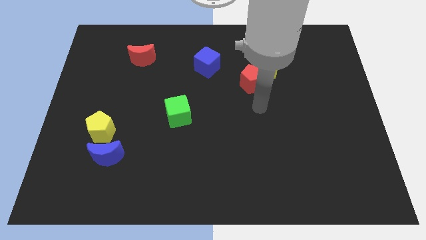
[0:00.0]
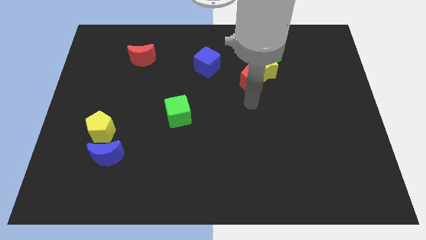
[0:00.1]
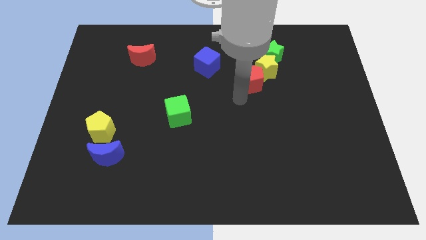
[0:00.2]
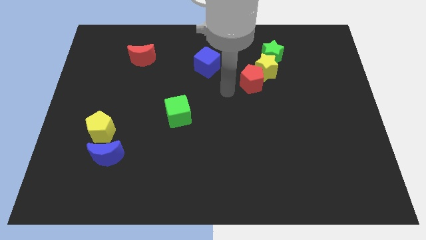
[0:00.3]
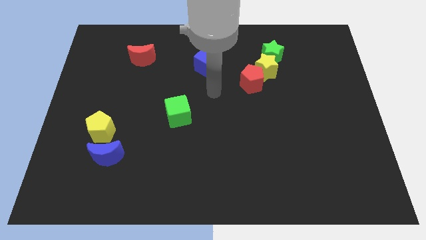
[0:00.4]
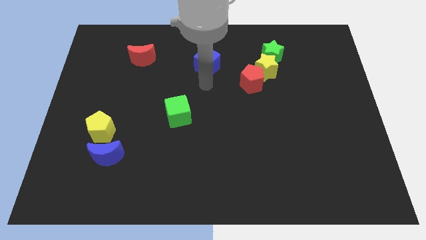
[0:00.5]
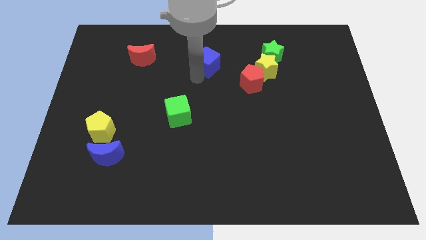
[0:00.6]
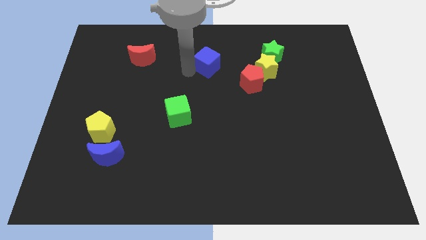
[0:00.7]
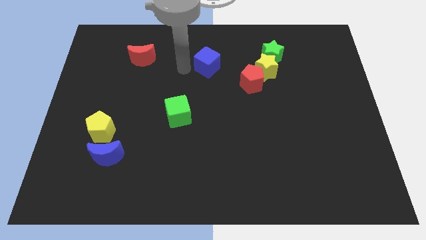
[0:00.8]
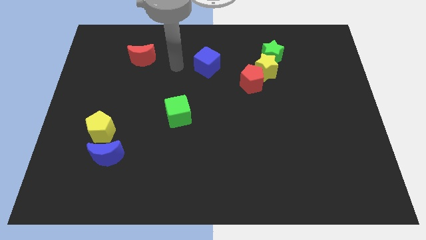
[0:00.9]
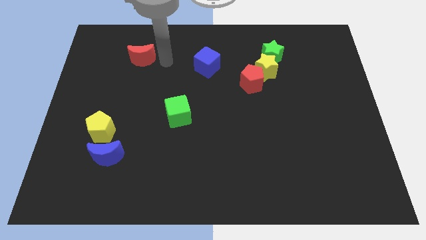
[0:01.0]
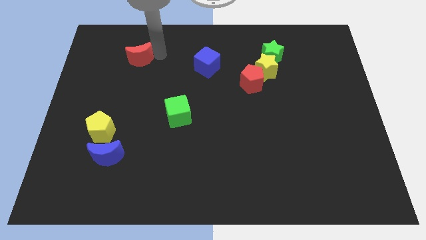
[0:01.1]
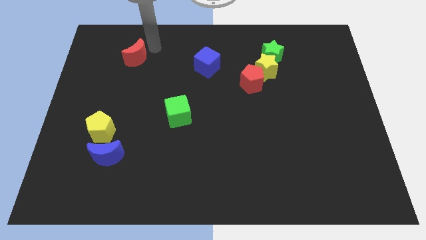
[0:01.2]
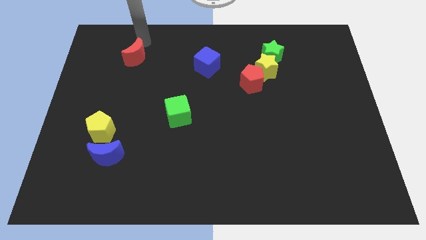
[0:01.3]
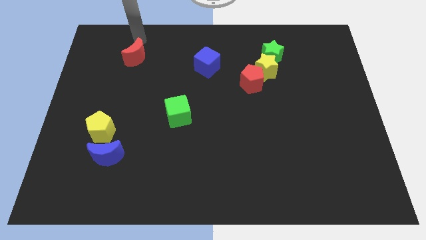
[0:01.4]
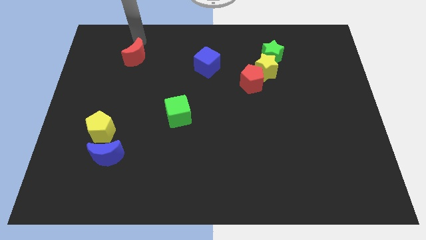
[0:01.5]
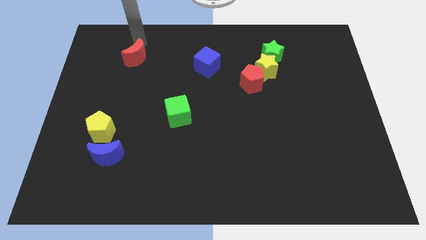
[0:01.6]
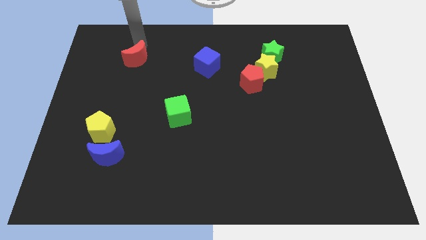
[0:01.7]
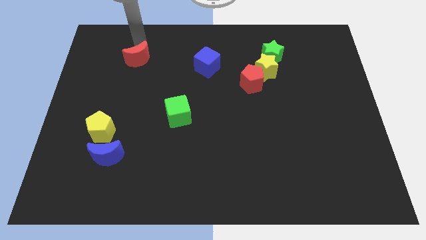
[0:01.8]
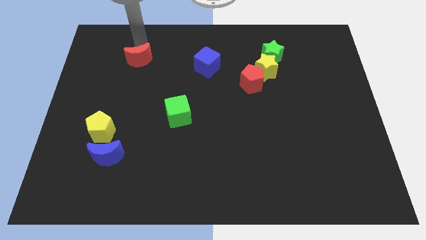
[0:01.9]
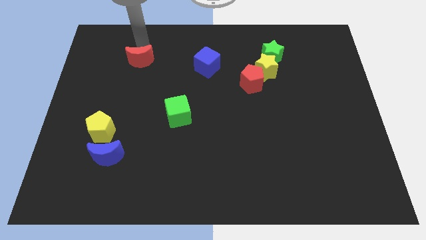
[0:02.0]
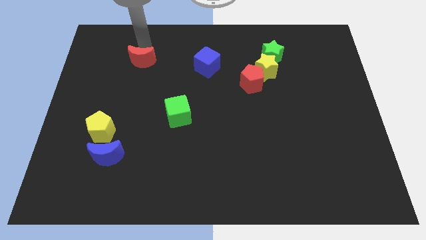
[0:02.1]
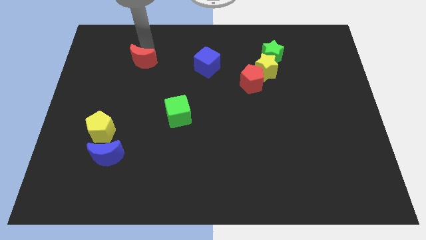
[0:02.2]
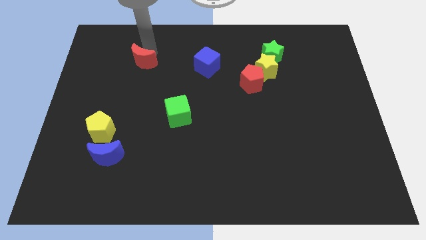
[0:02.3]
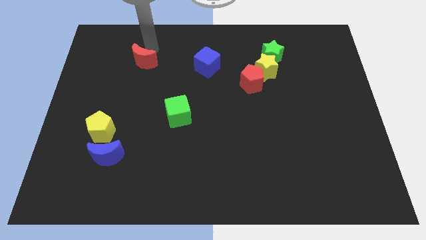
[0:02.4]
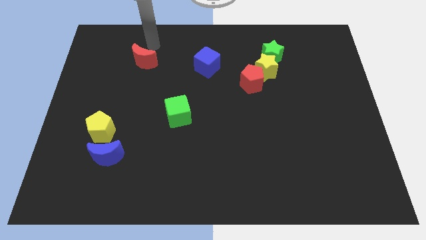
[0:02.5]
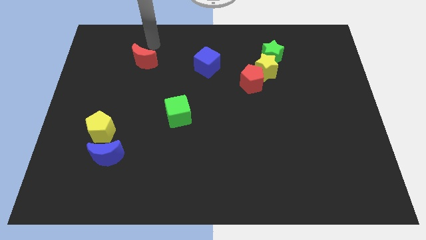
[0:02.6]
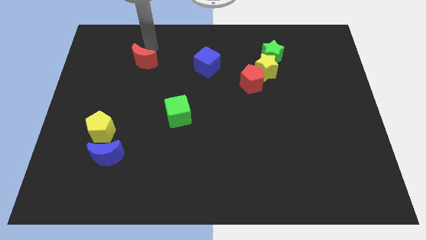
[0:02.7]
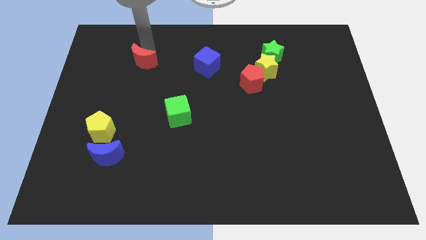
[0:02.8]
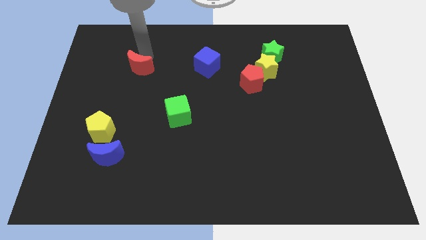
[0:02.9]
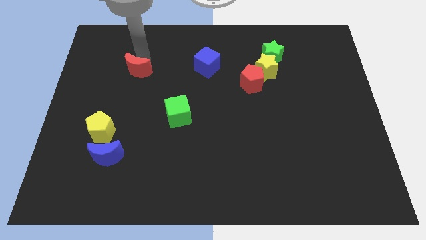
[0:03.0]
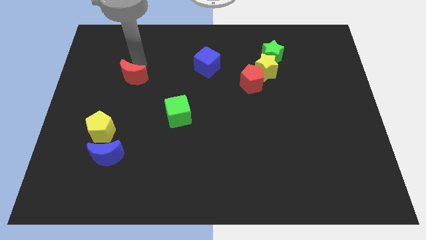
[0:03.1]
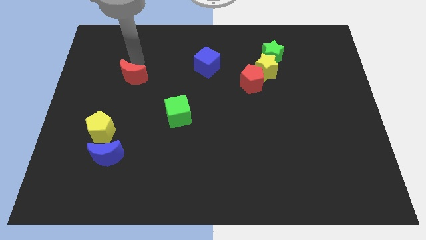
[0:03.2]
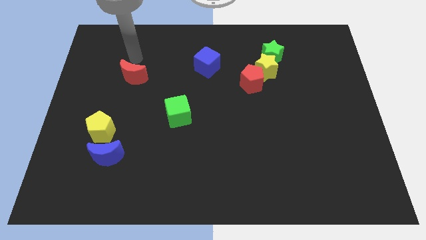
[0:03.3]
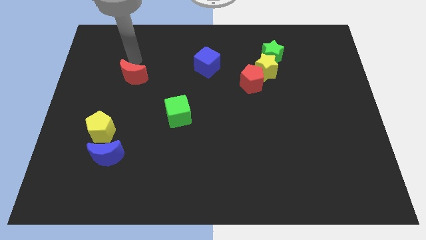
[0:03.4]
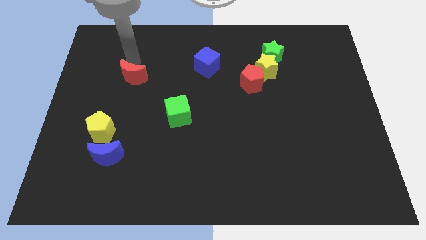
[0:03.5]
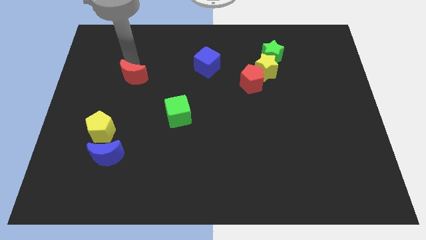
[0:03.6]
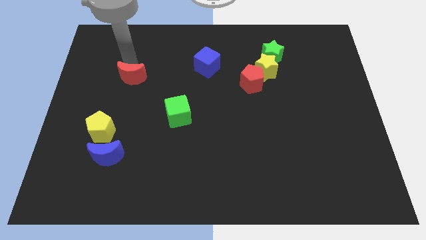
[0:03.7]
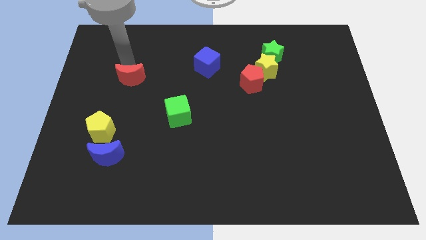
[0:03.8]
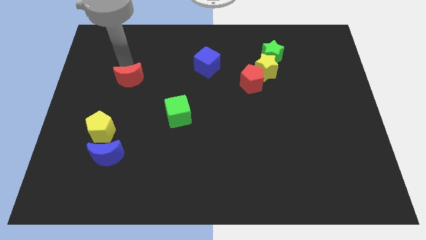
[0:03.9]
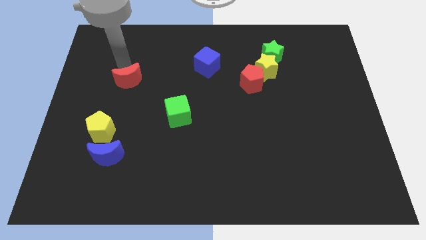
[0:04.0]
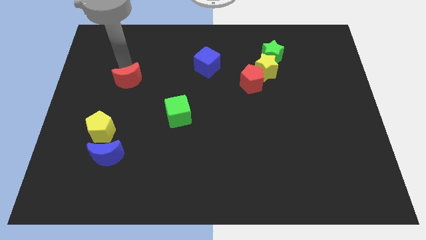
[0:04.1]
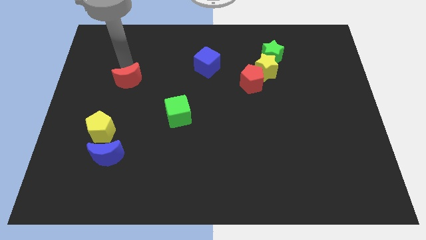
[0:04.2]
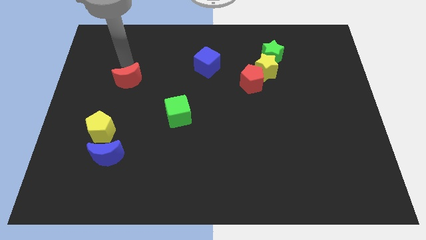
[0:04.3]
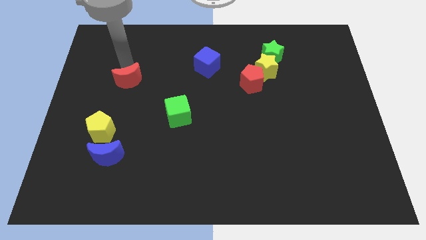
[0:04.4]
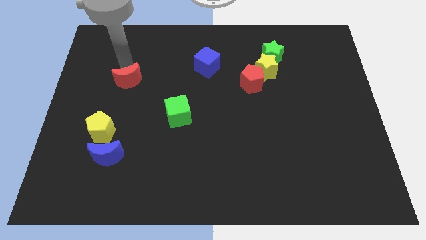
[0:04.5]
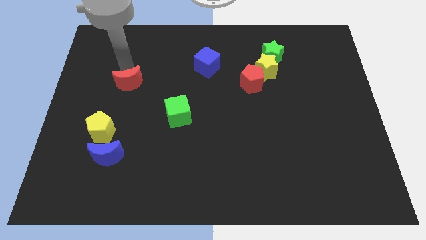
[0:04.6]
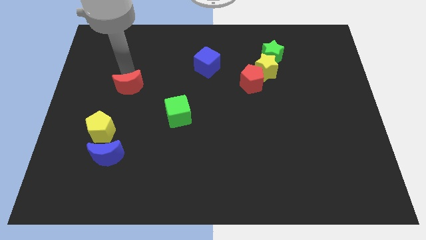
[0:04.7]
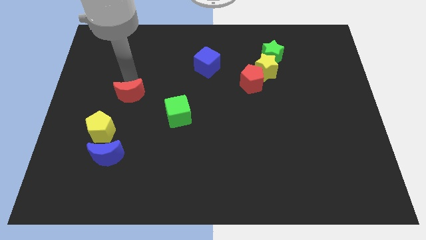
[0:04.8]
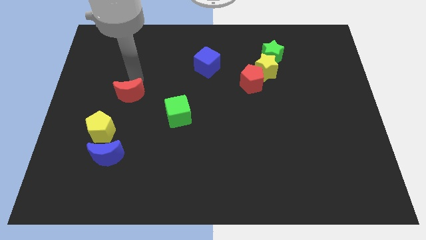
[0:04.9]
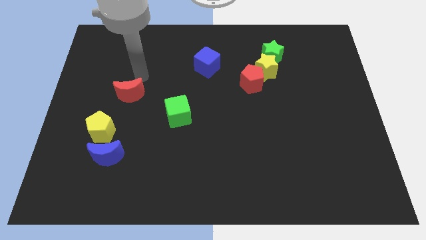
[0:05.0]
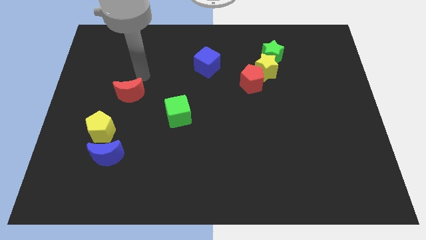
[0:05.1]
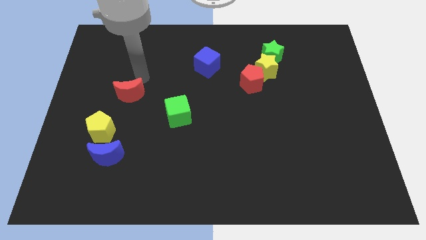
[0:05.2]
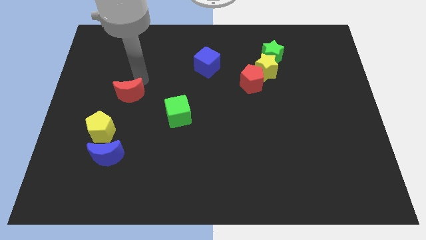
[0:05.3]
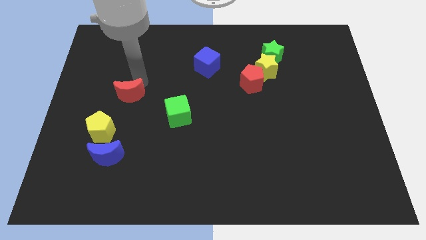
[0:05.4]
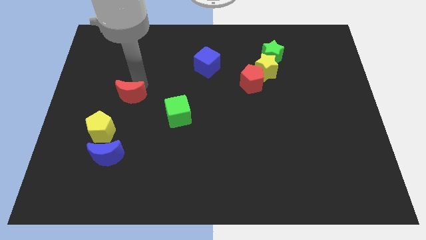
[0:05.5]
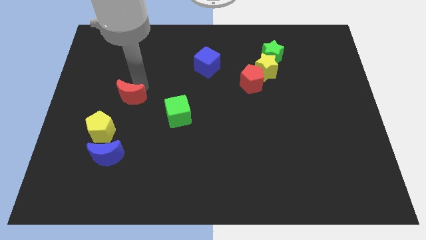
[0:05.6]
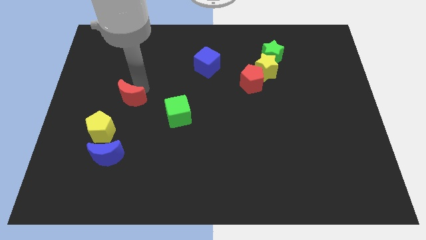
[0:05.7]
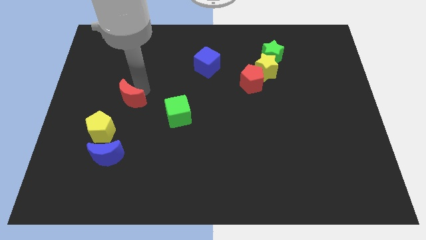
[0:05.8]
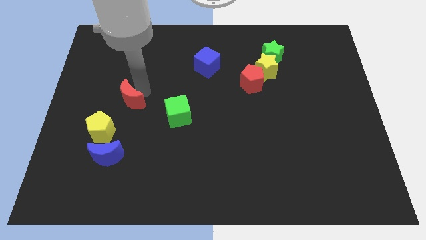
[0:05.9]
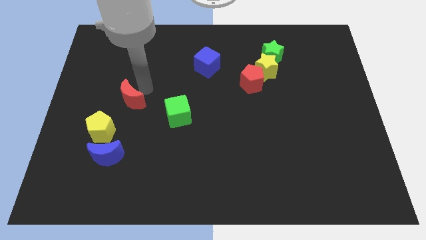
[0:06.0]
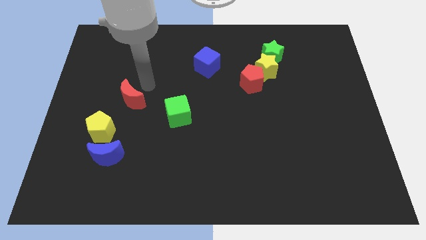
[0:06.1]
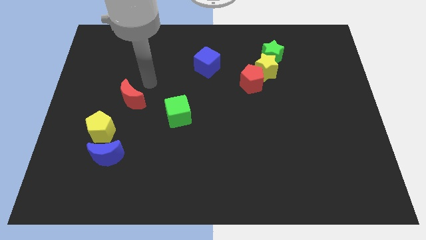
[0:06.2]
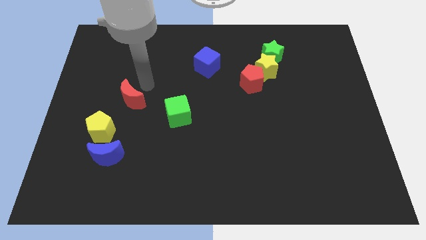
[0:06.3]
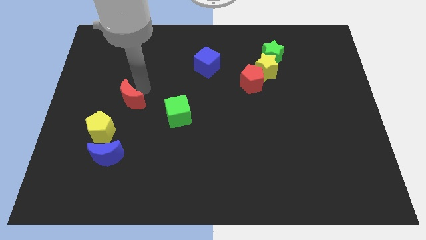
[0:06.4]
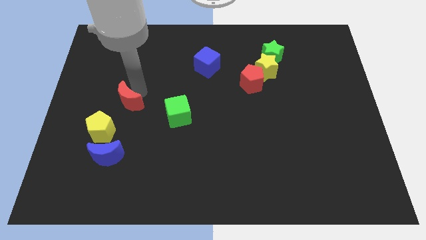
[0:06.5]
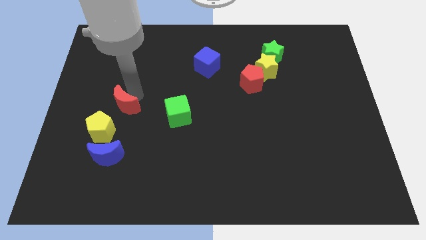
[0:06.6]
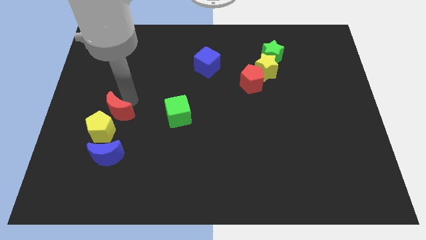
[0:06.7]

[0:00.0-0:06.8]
put the red moon to the yellow pentagon
